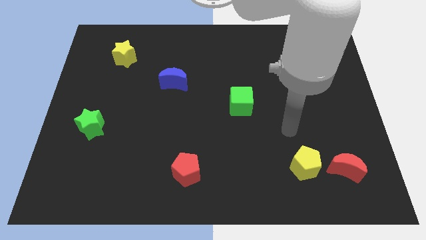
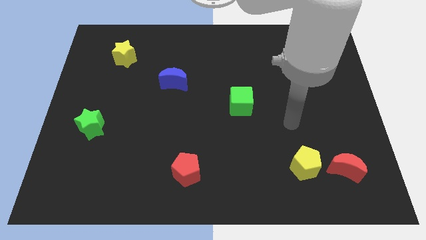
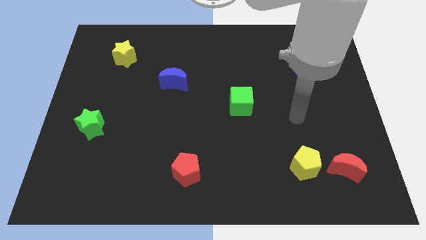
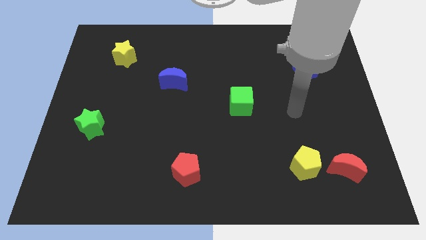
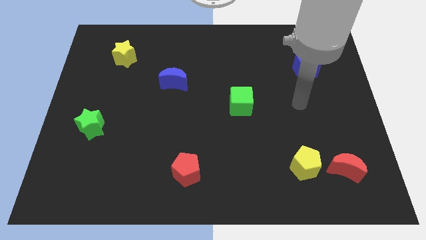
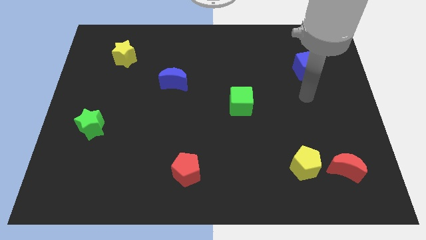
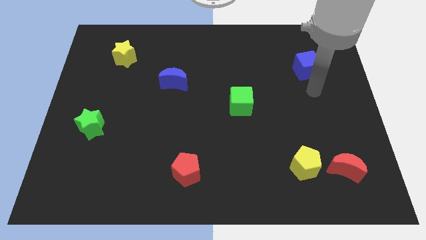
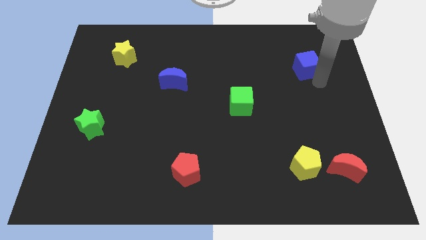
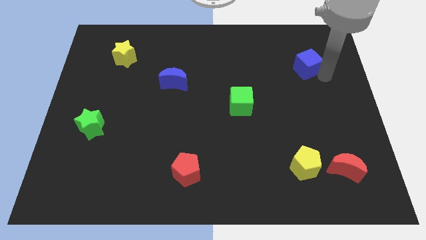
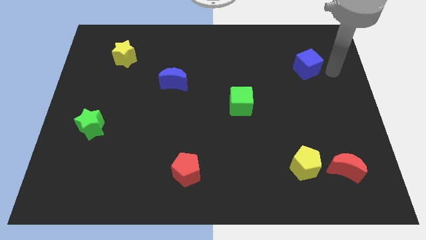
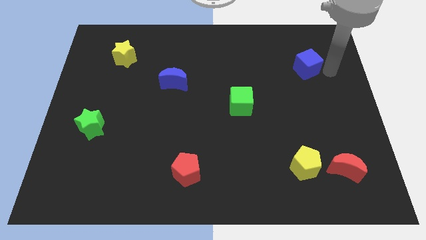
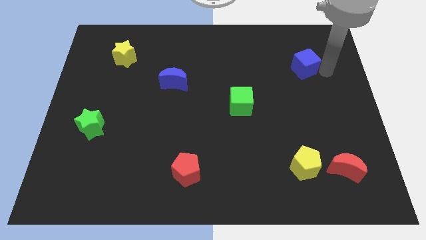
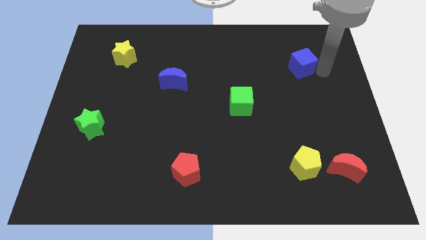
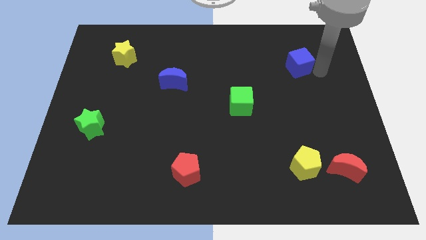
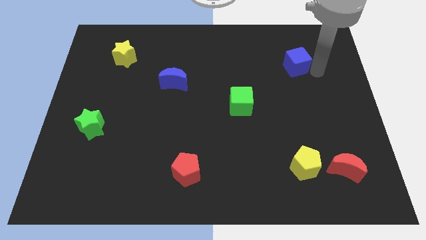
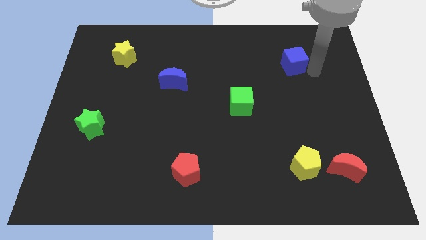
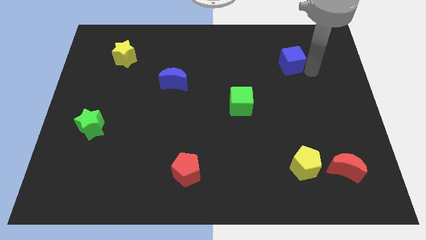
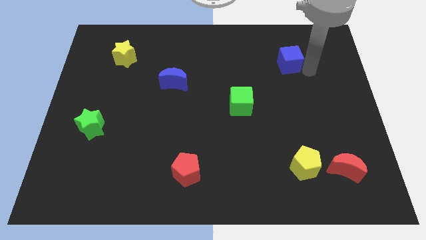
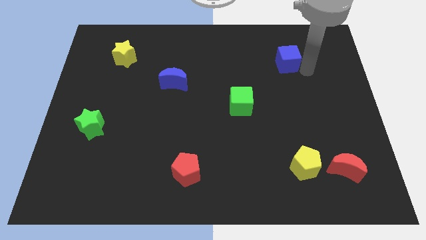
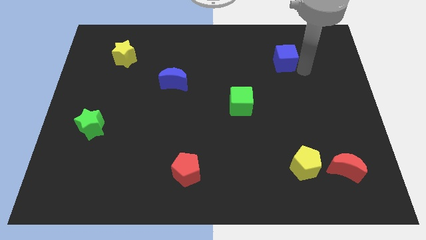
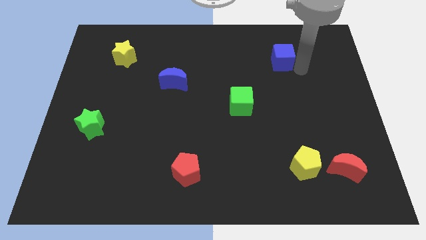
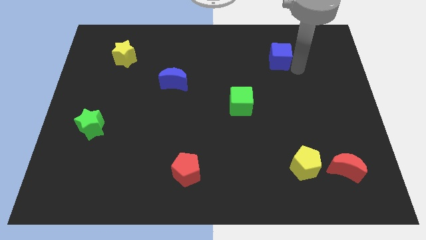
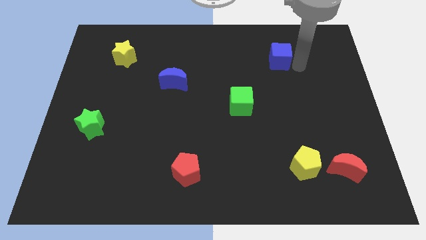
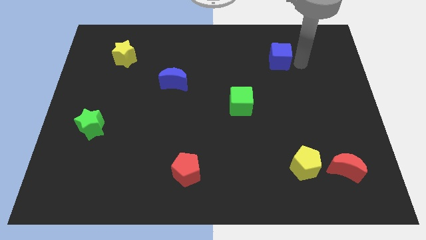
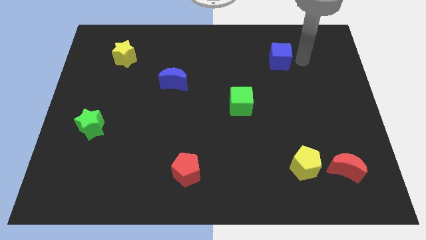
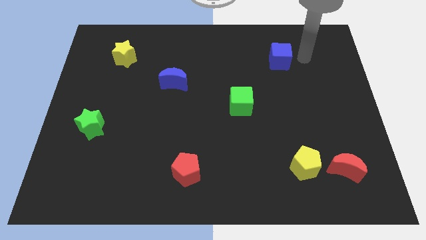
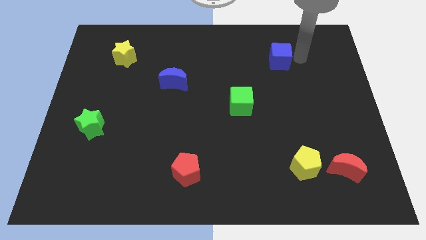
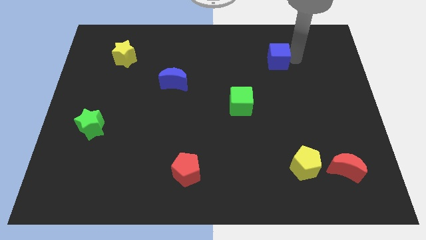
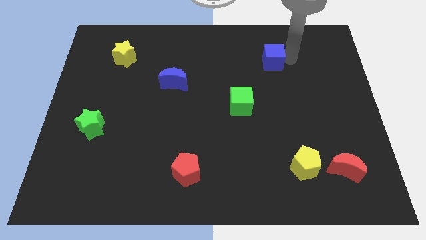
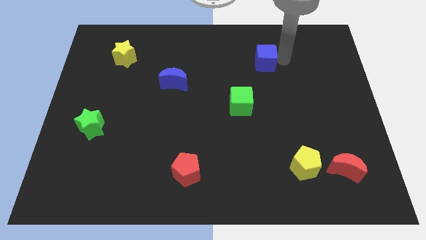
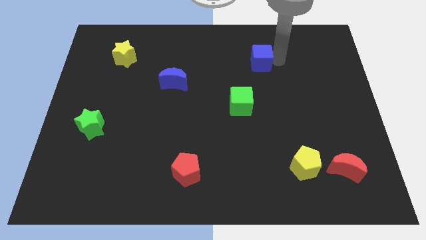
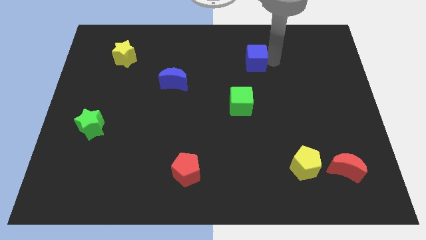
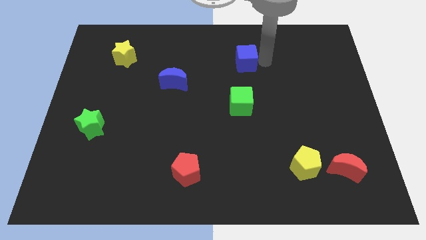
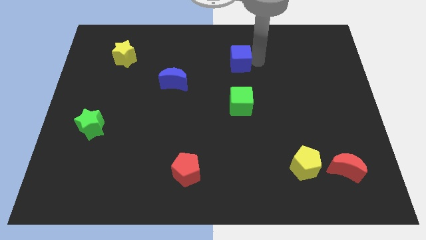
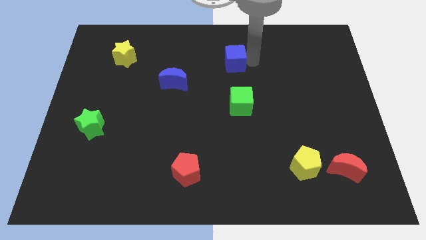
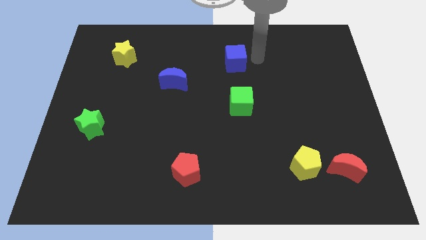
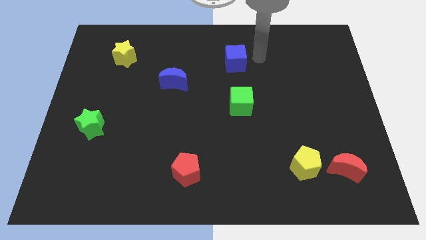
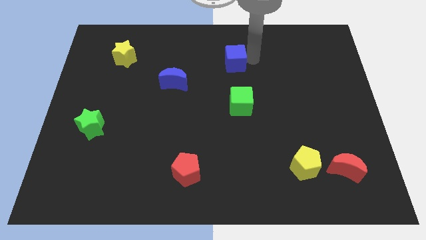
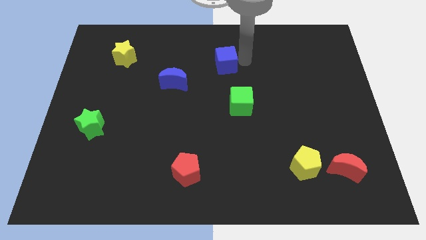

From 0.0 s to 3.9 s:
move the blue cube left

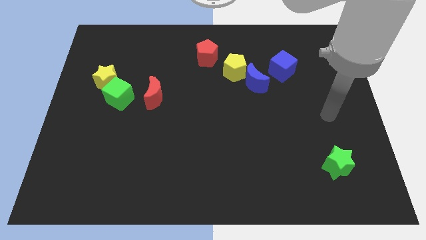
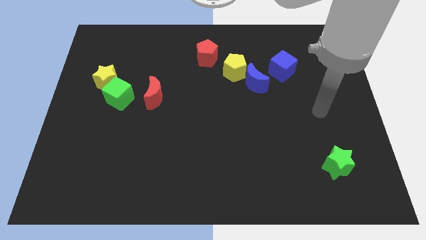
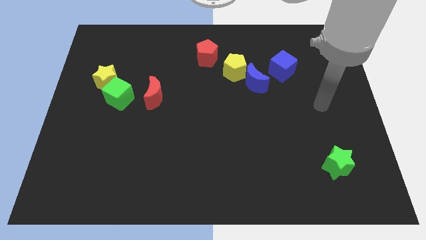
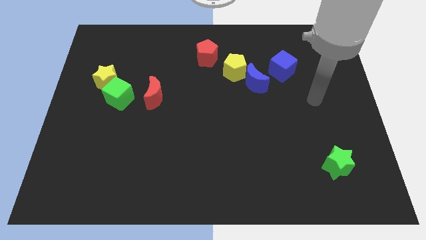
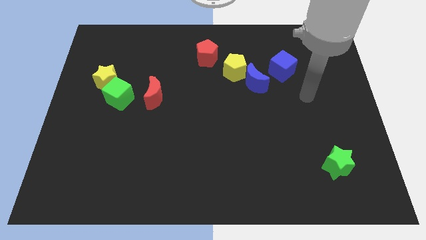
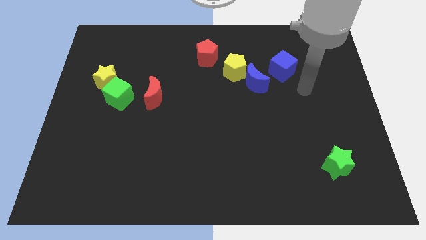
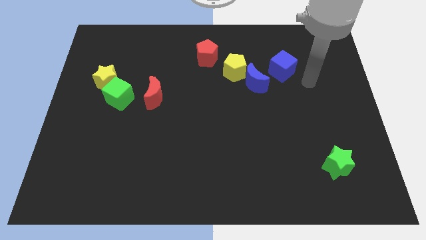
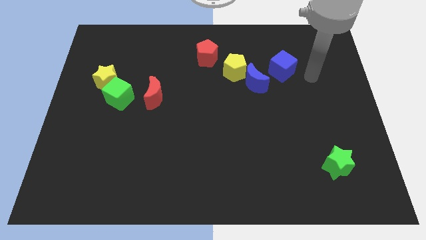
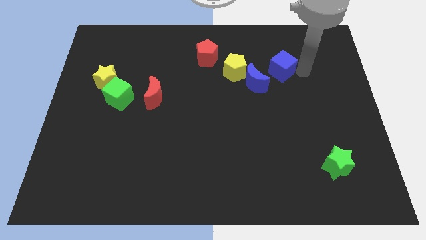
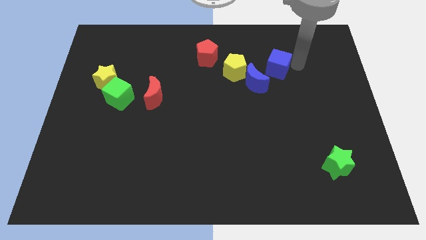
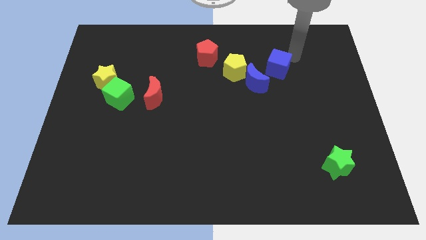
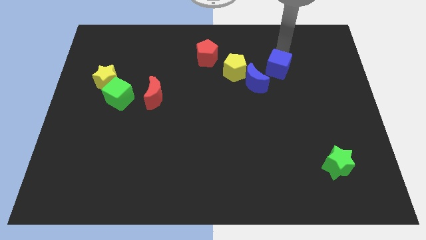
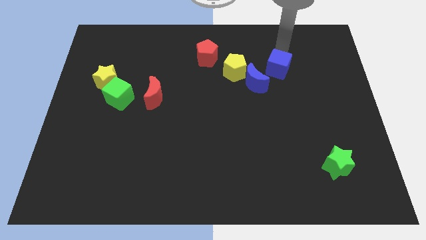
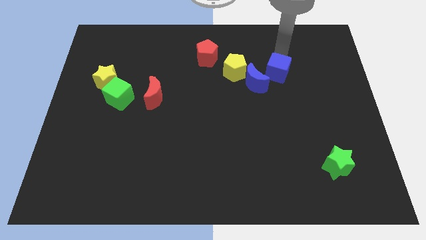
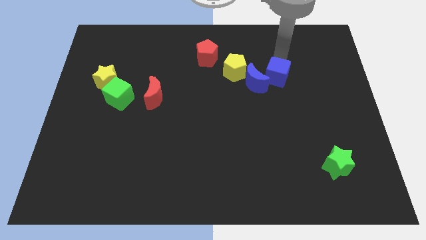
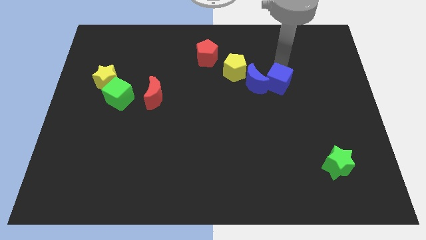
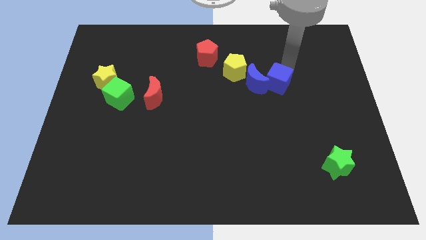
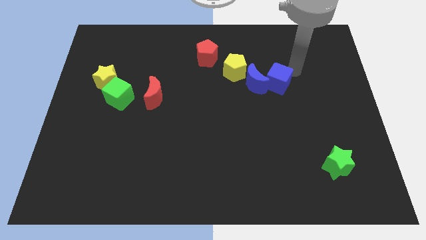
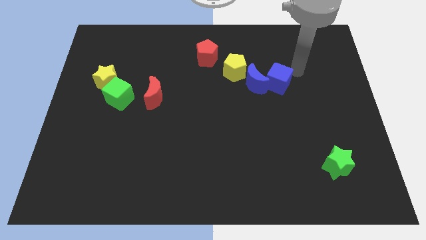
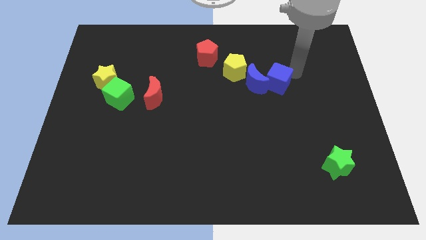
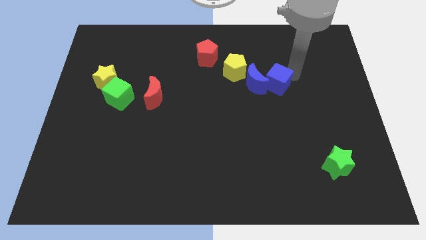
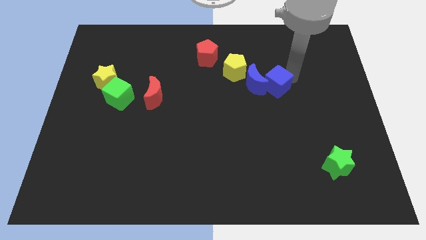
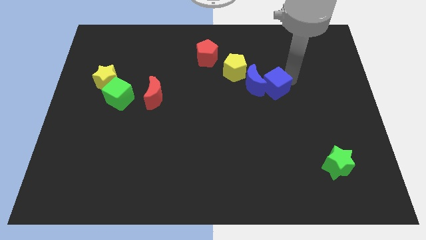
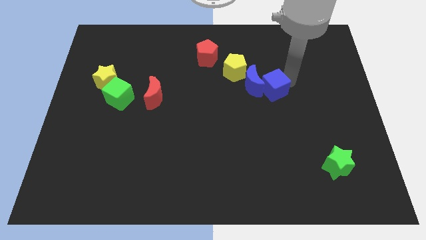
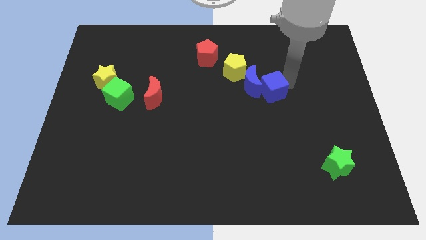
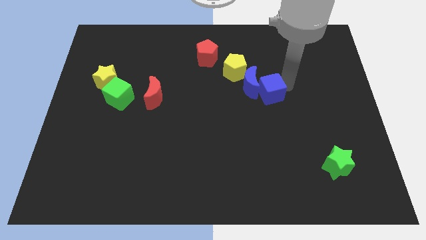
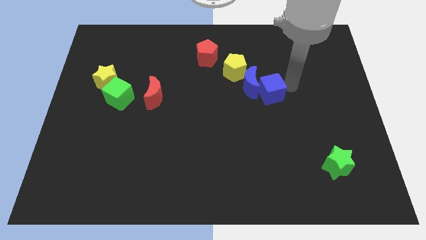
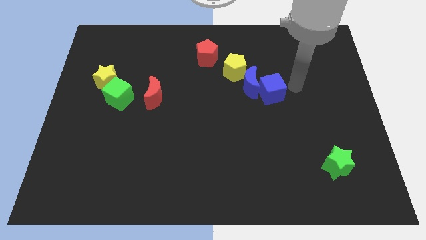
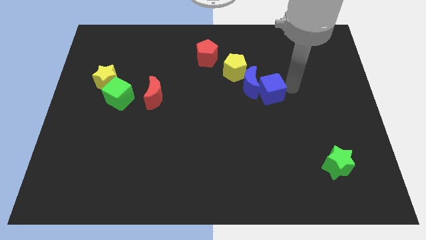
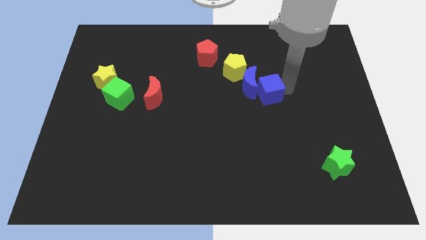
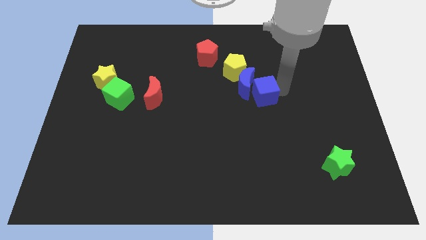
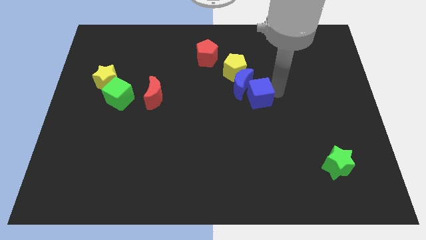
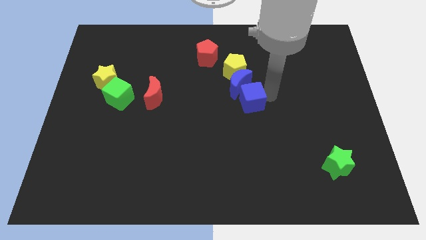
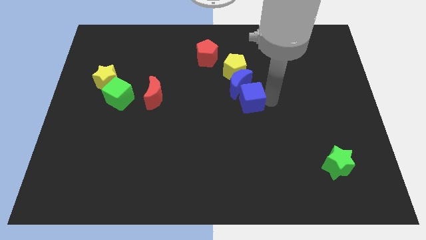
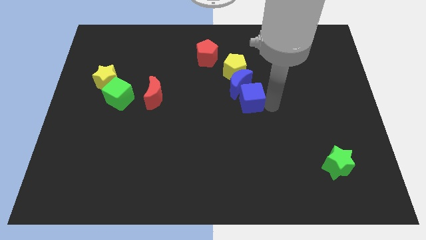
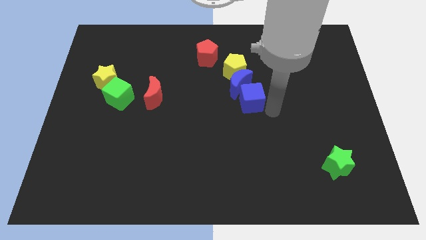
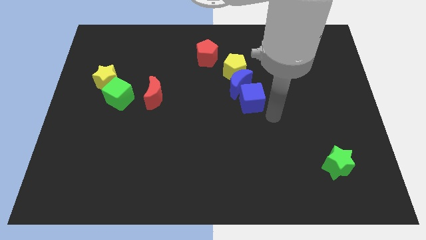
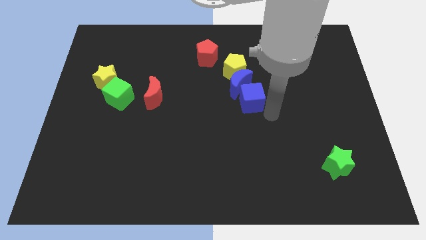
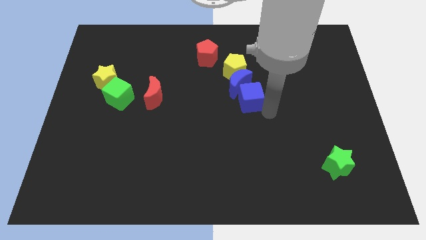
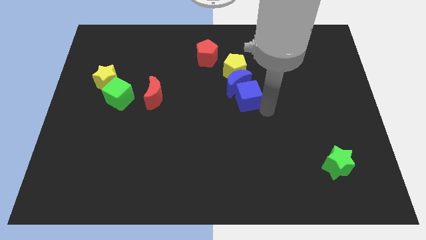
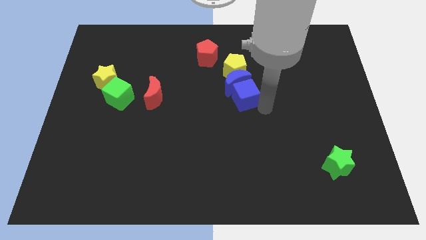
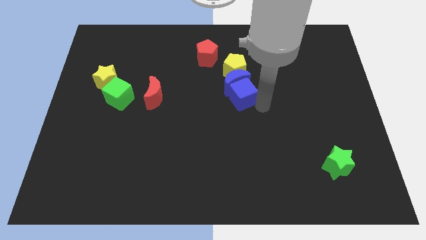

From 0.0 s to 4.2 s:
slightly slide the blue cube to the left
